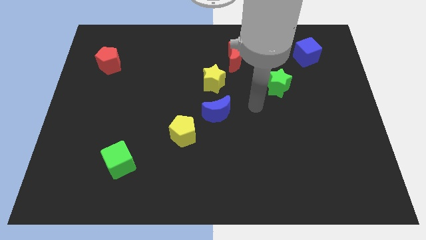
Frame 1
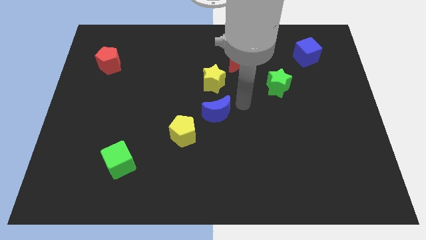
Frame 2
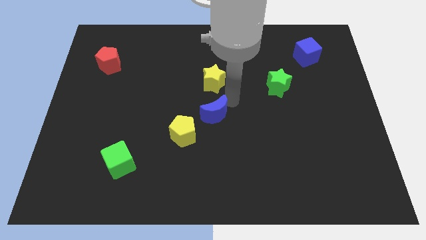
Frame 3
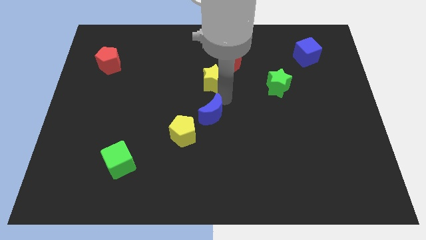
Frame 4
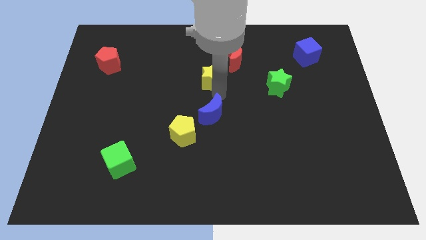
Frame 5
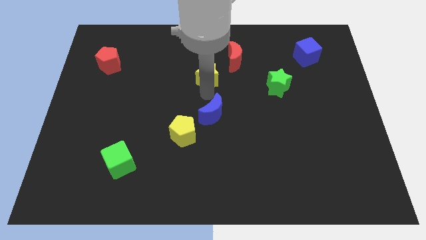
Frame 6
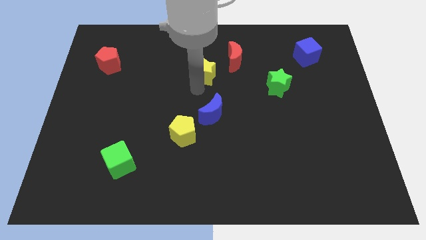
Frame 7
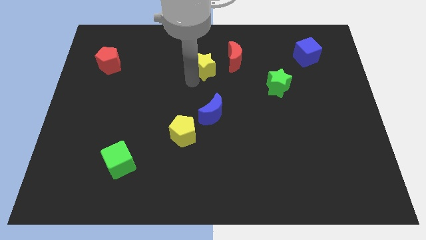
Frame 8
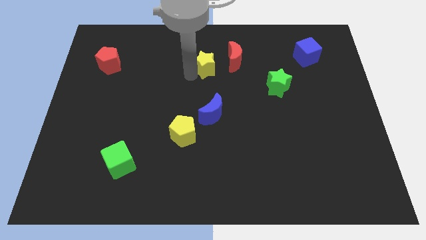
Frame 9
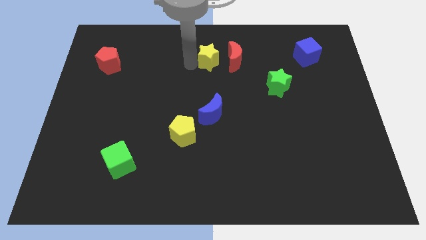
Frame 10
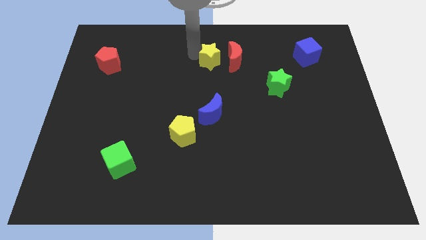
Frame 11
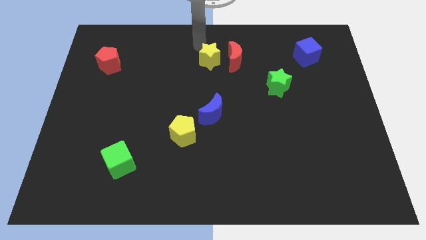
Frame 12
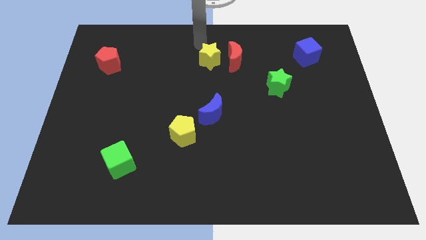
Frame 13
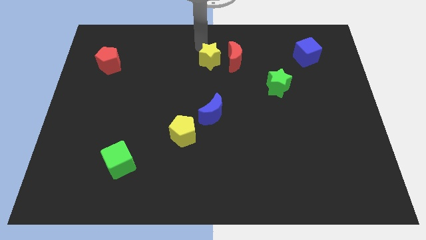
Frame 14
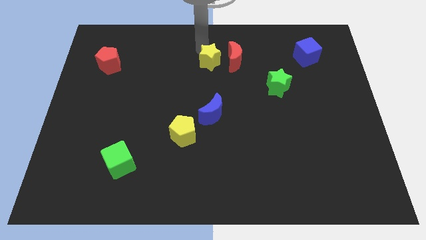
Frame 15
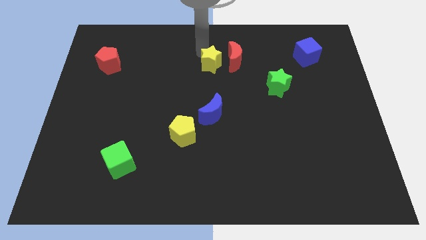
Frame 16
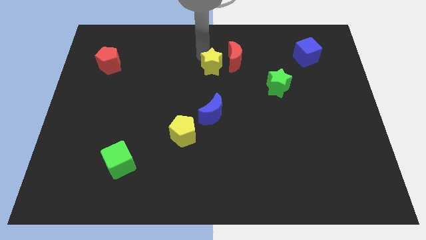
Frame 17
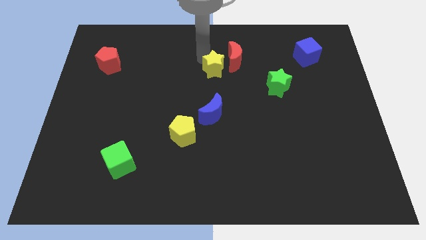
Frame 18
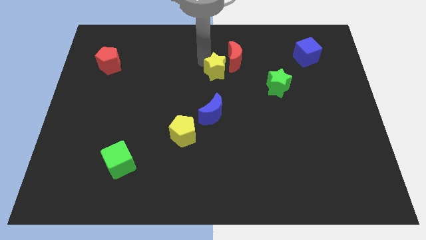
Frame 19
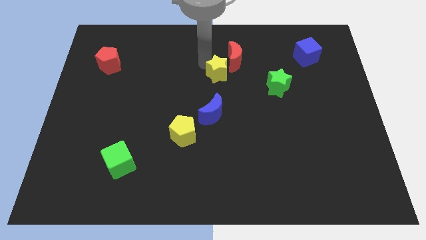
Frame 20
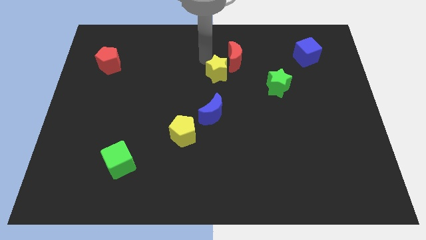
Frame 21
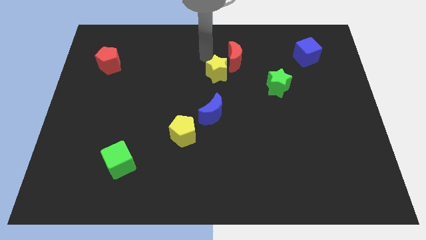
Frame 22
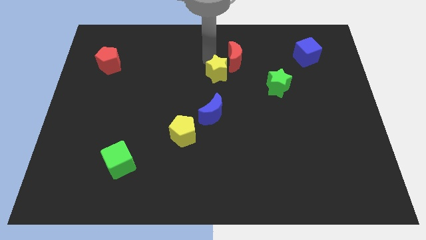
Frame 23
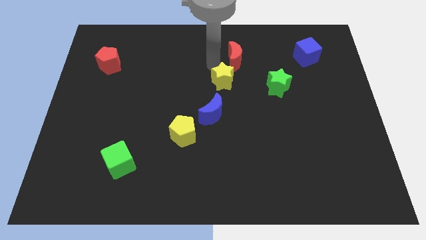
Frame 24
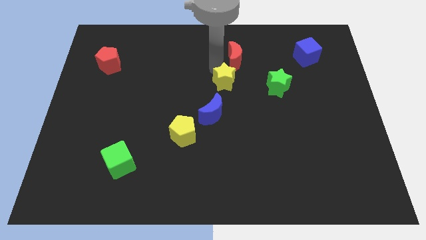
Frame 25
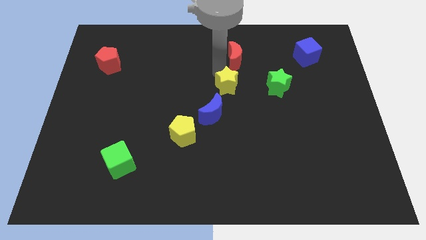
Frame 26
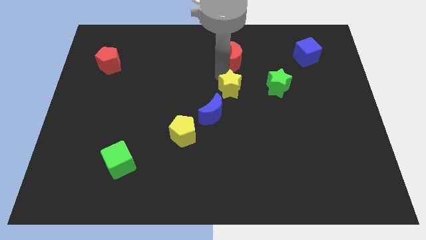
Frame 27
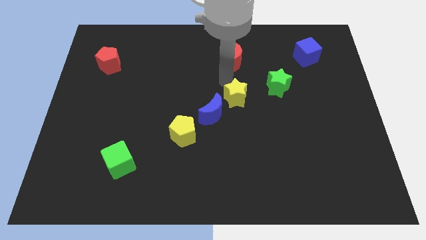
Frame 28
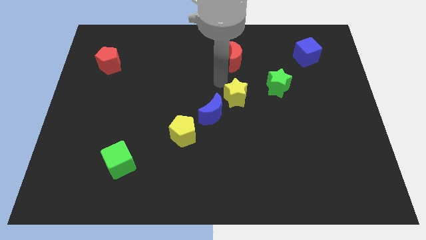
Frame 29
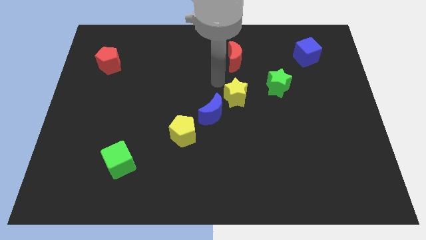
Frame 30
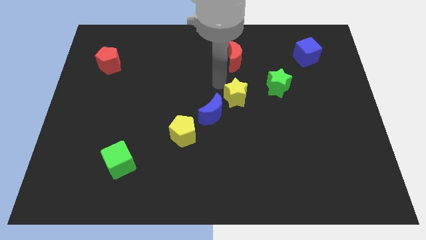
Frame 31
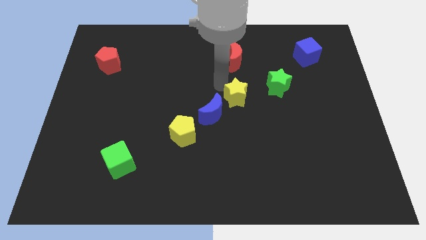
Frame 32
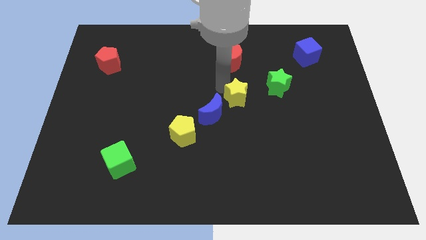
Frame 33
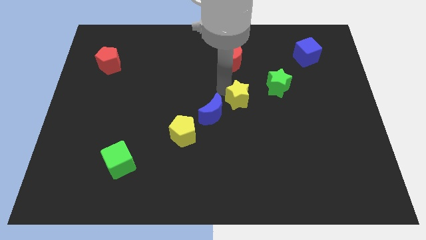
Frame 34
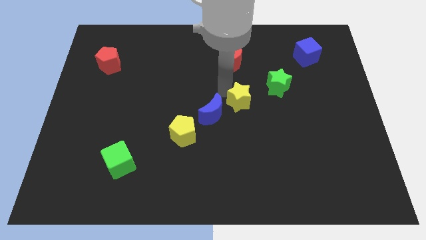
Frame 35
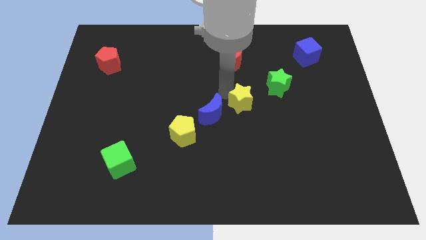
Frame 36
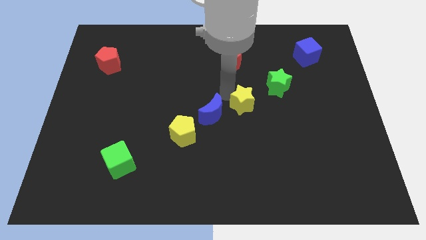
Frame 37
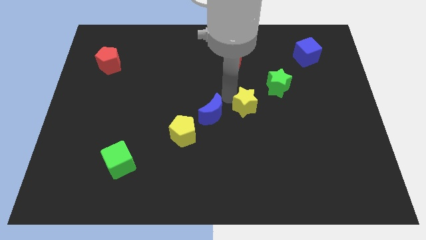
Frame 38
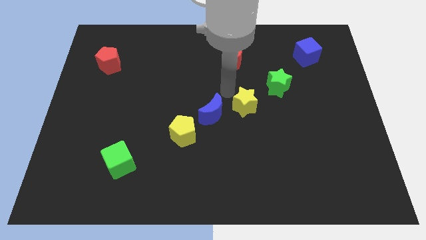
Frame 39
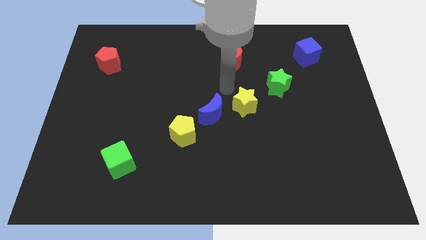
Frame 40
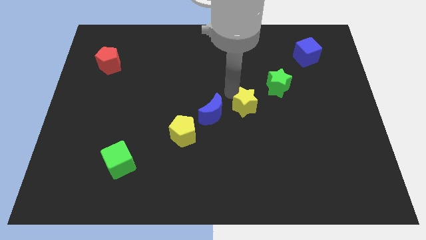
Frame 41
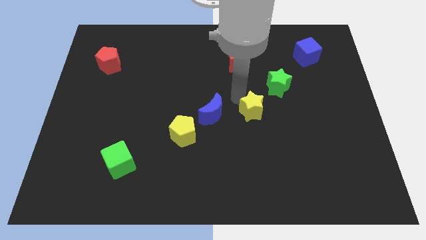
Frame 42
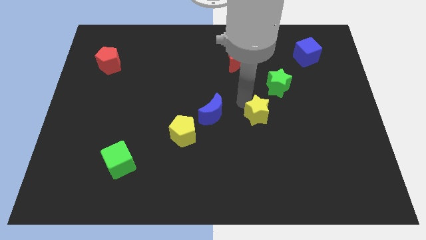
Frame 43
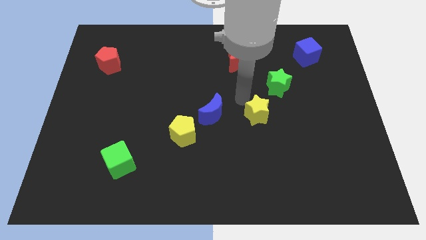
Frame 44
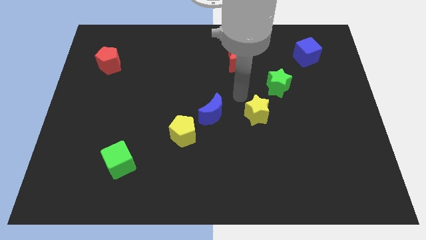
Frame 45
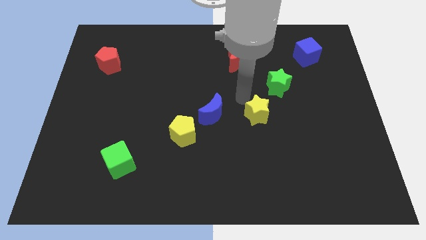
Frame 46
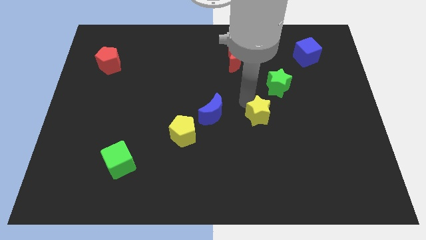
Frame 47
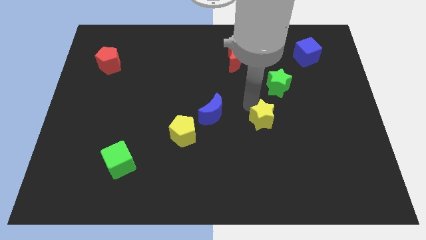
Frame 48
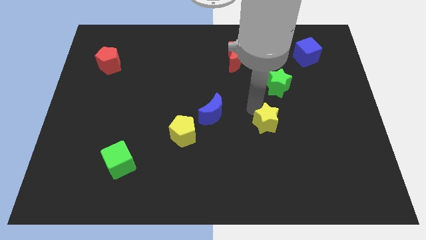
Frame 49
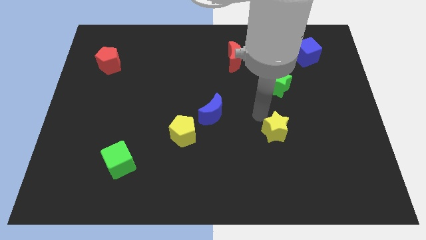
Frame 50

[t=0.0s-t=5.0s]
move the yellow star downwards and to the right

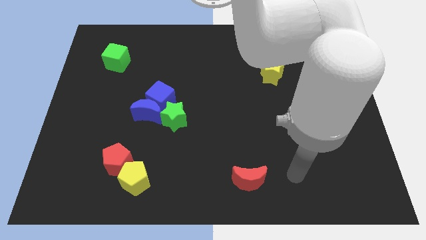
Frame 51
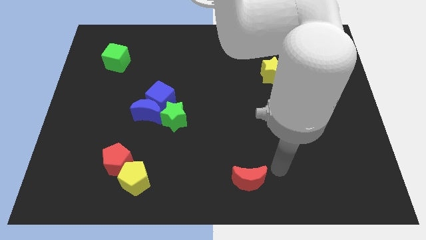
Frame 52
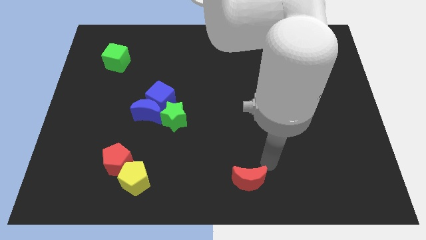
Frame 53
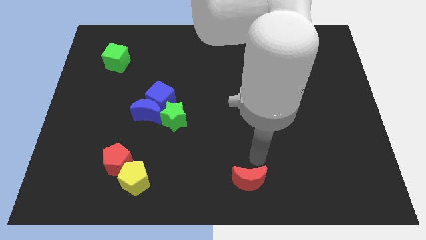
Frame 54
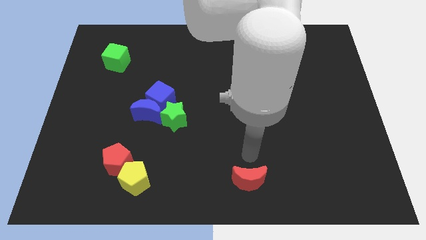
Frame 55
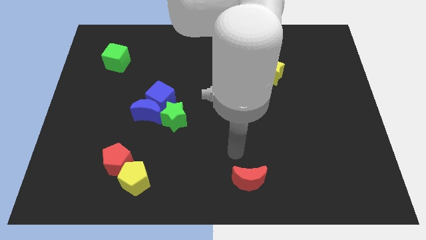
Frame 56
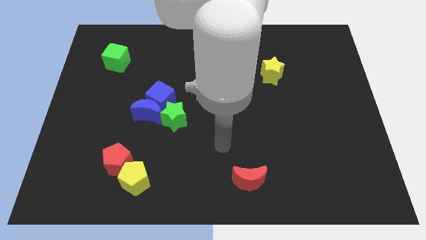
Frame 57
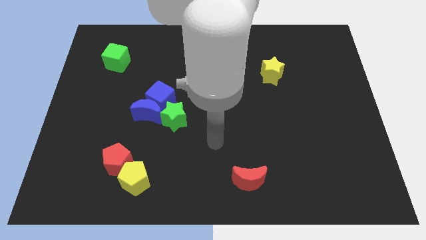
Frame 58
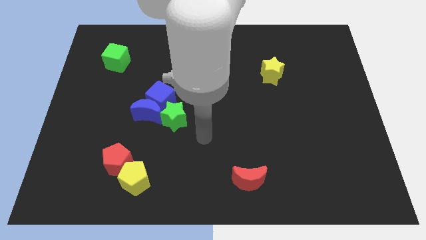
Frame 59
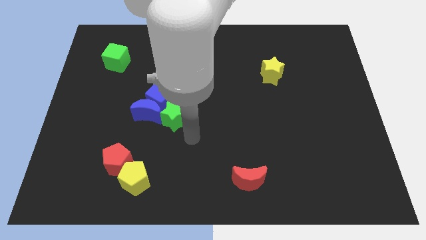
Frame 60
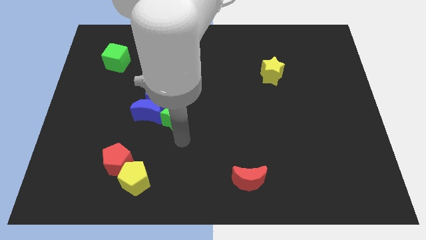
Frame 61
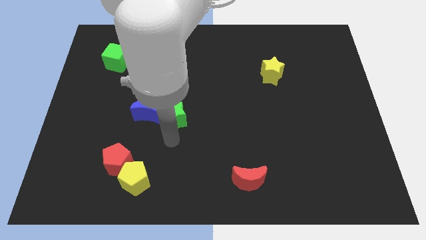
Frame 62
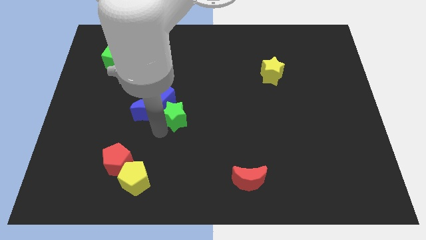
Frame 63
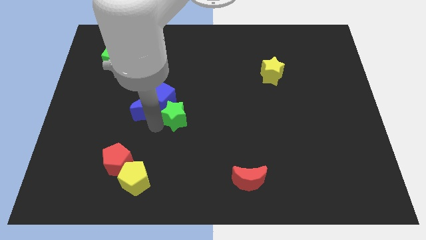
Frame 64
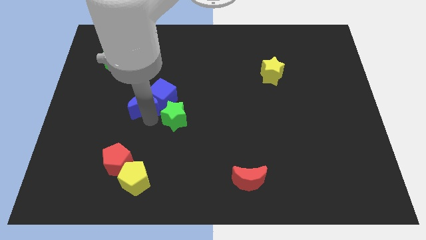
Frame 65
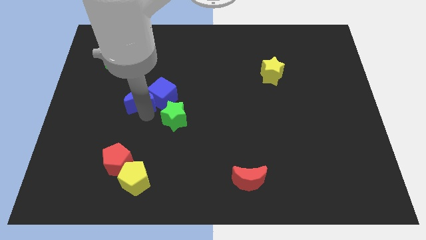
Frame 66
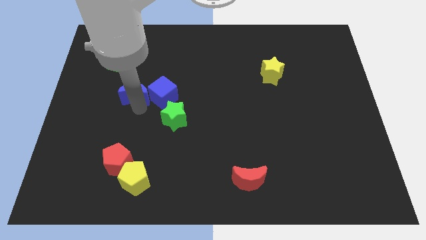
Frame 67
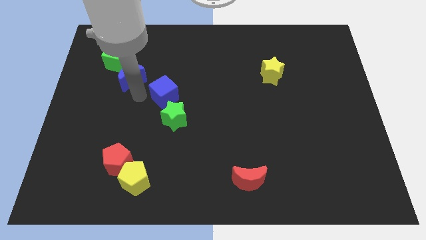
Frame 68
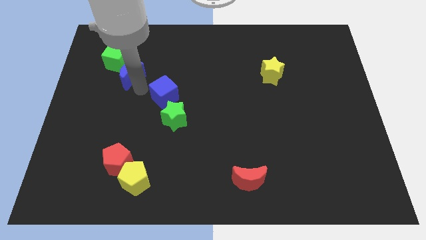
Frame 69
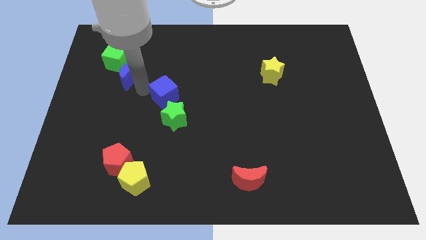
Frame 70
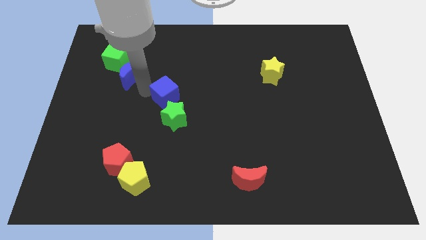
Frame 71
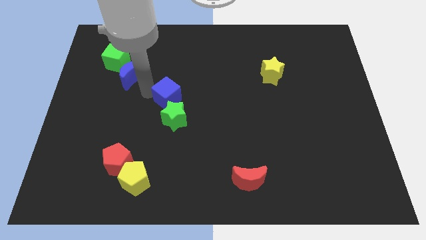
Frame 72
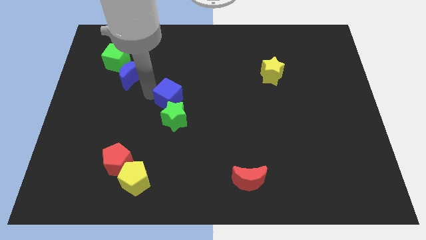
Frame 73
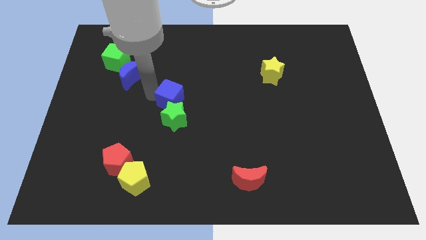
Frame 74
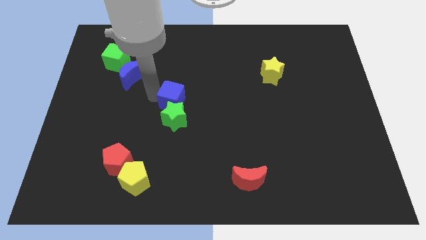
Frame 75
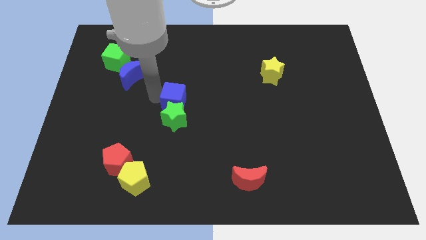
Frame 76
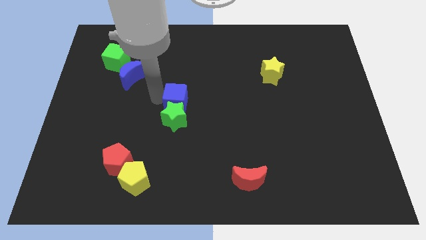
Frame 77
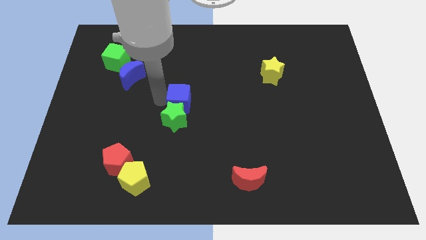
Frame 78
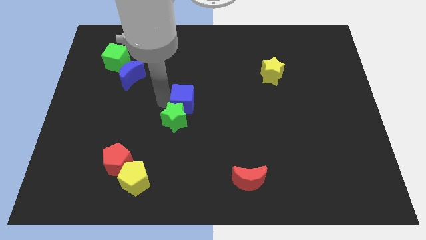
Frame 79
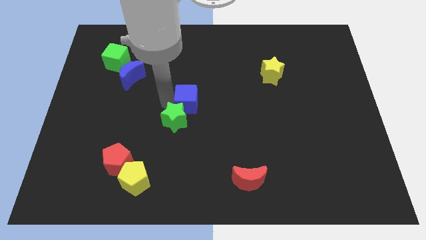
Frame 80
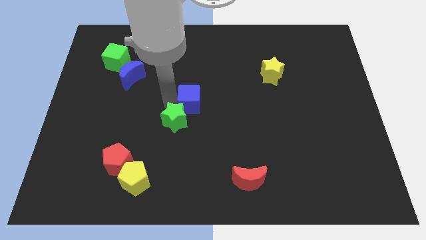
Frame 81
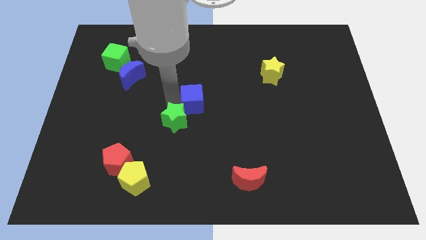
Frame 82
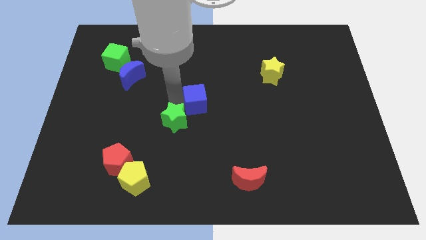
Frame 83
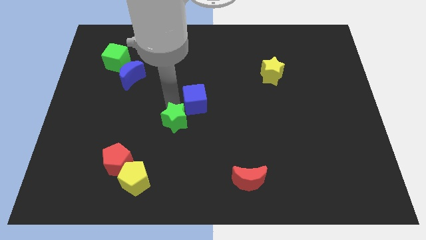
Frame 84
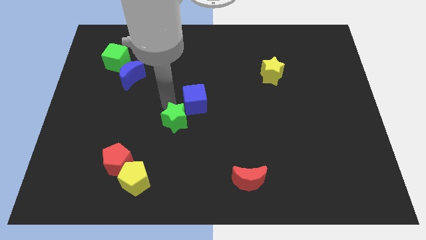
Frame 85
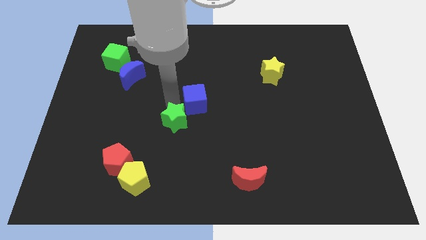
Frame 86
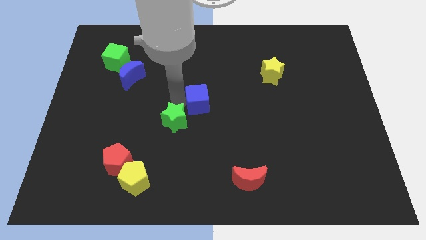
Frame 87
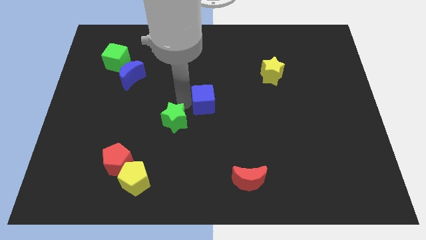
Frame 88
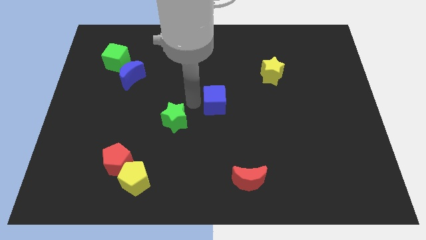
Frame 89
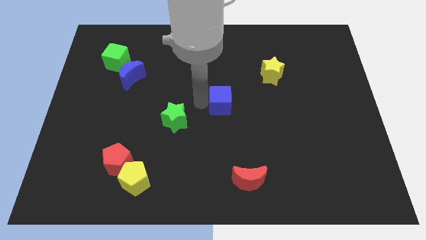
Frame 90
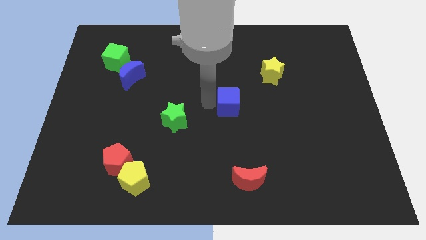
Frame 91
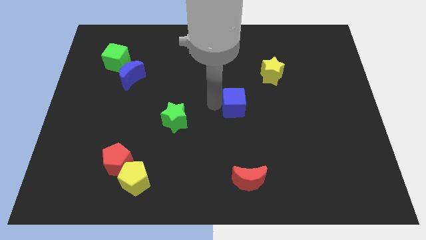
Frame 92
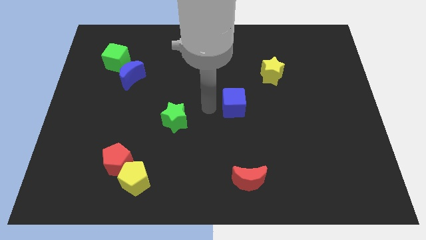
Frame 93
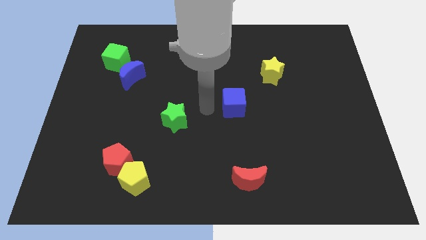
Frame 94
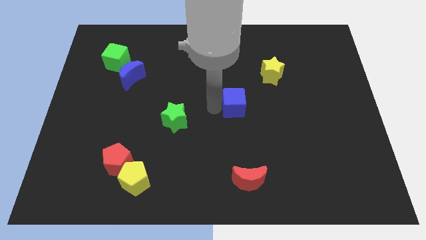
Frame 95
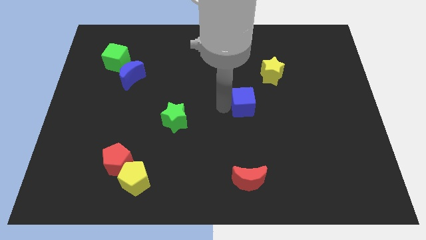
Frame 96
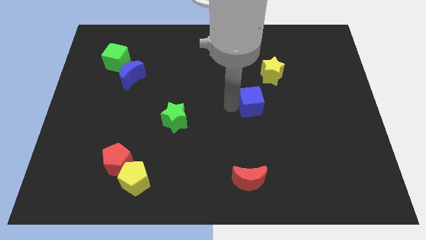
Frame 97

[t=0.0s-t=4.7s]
push the blue cube to the right
